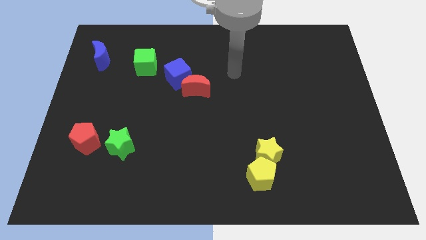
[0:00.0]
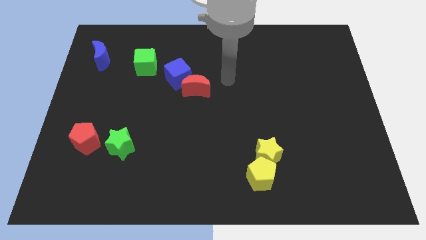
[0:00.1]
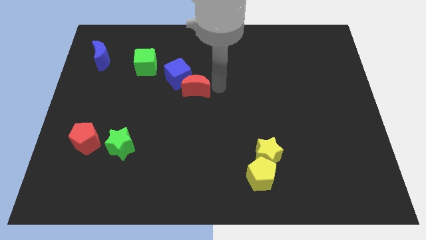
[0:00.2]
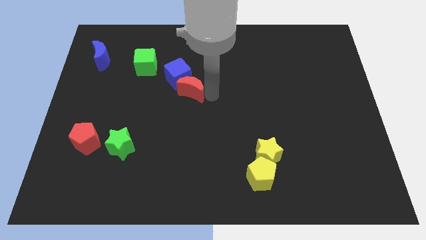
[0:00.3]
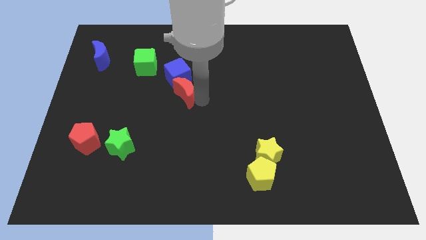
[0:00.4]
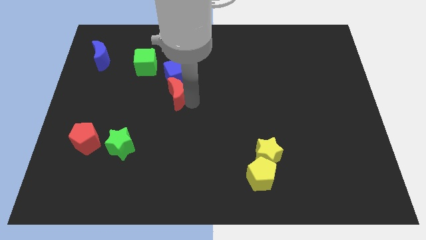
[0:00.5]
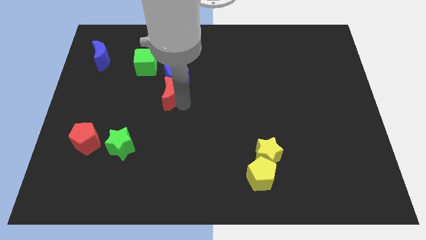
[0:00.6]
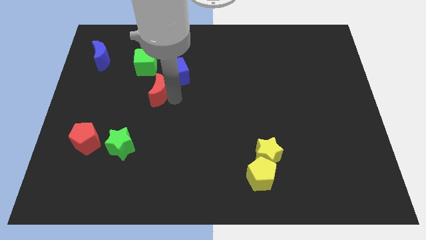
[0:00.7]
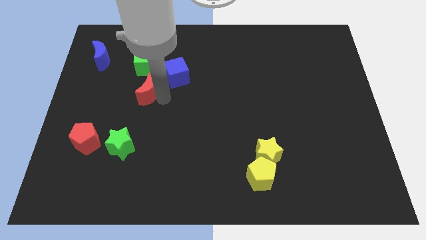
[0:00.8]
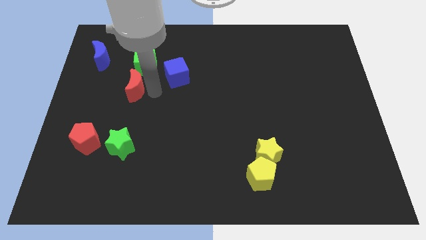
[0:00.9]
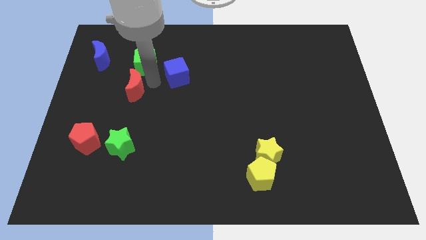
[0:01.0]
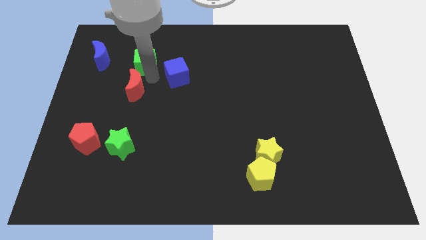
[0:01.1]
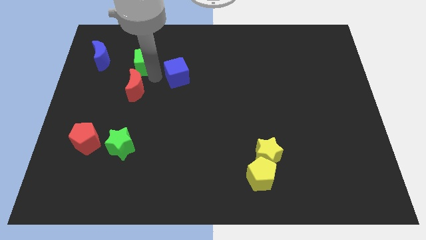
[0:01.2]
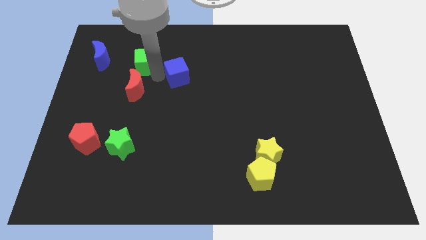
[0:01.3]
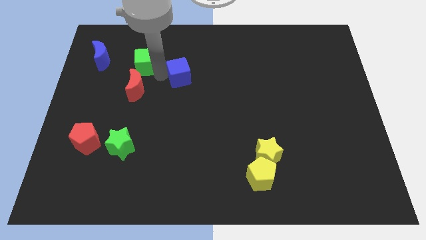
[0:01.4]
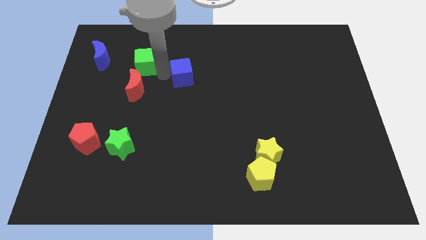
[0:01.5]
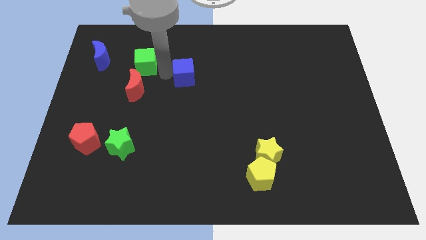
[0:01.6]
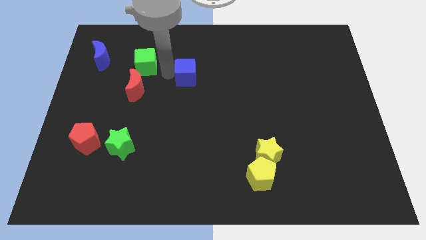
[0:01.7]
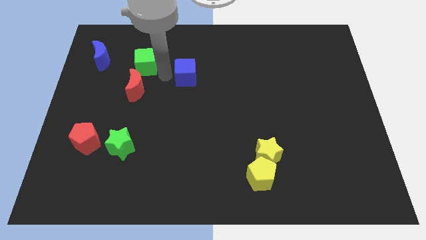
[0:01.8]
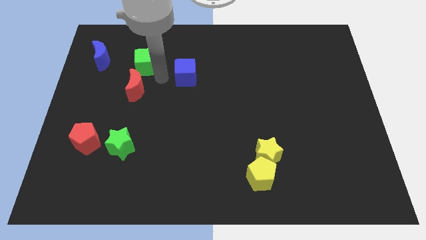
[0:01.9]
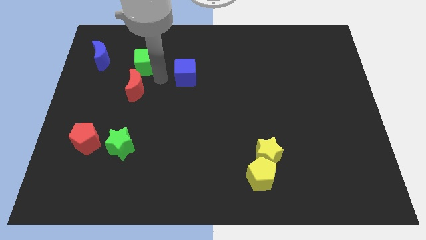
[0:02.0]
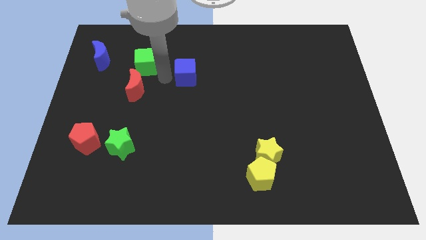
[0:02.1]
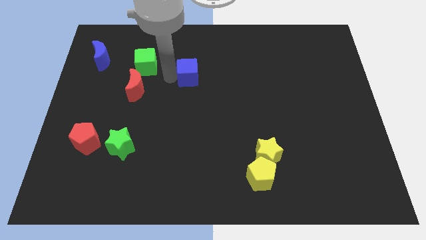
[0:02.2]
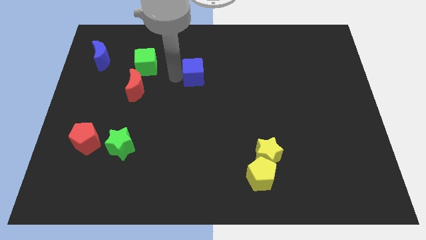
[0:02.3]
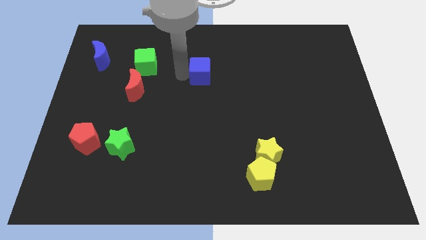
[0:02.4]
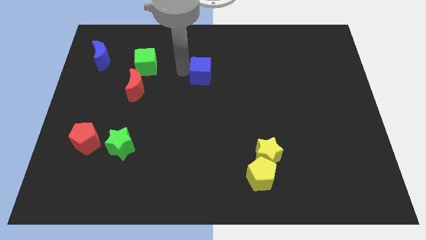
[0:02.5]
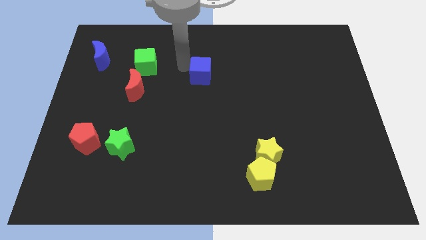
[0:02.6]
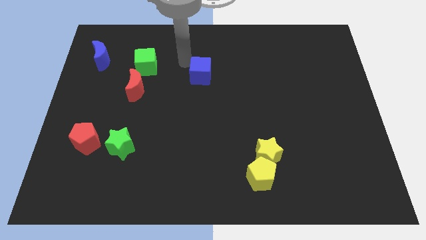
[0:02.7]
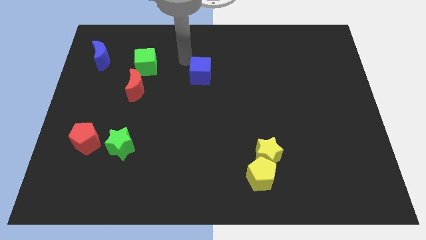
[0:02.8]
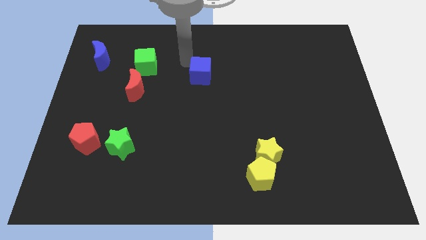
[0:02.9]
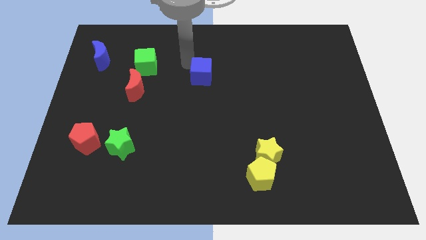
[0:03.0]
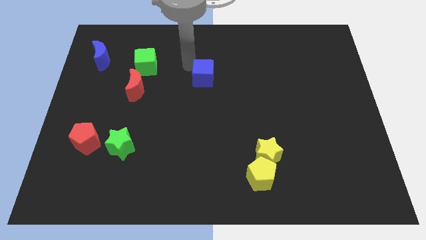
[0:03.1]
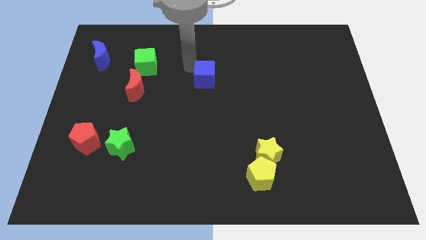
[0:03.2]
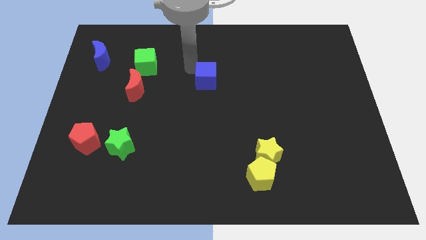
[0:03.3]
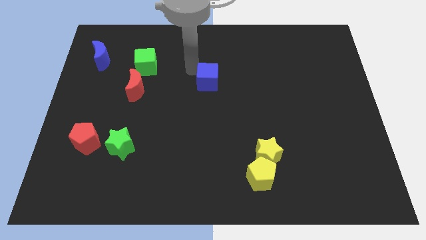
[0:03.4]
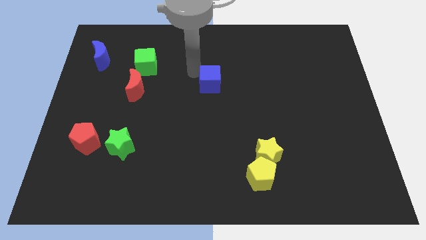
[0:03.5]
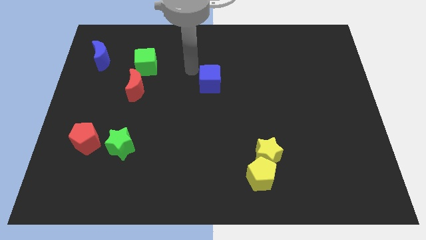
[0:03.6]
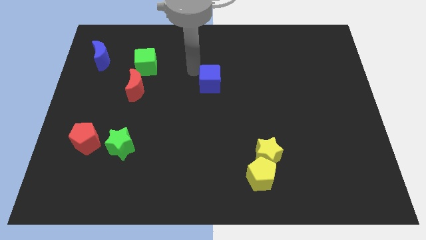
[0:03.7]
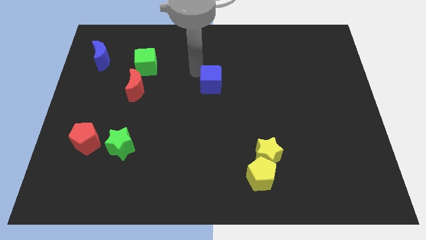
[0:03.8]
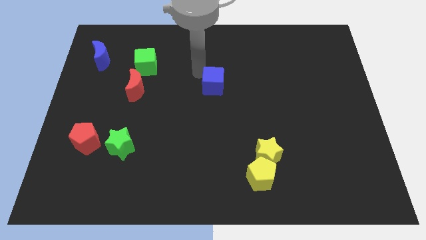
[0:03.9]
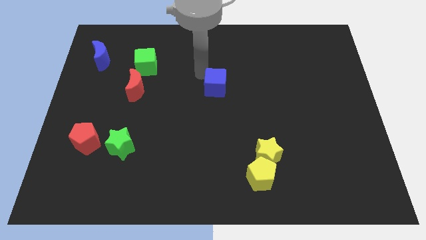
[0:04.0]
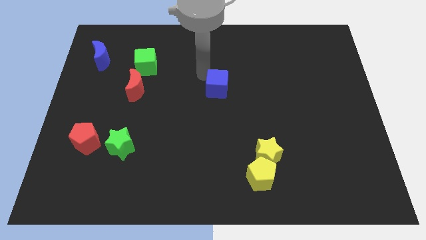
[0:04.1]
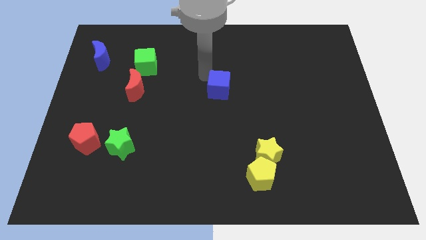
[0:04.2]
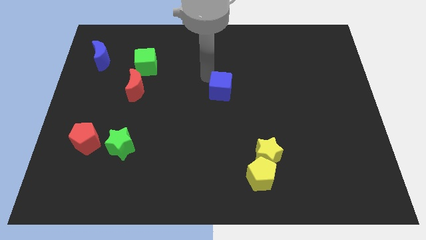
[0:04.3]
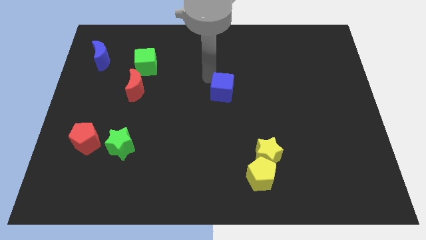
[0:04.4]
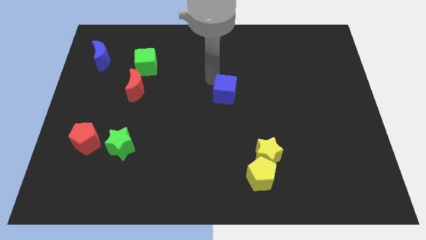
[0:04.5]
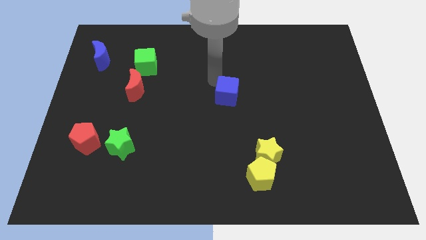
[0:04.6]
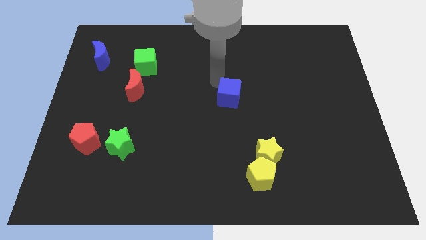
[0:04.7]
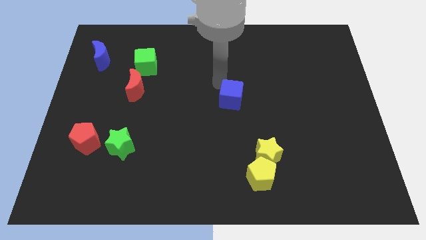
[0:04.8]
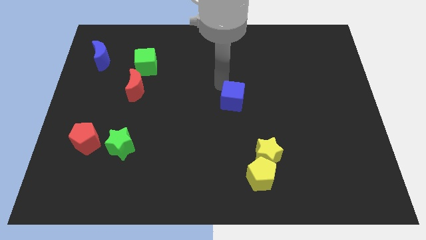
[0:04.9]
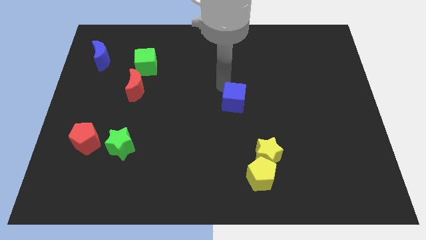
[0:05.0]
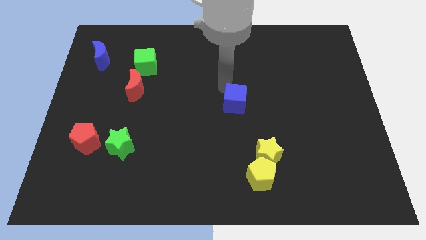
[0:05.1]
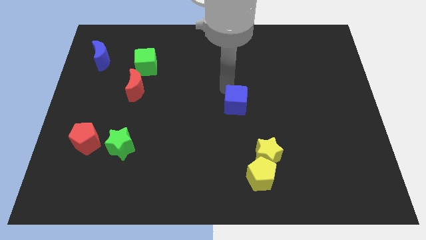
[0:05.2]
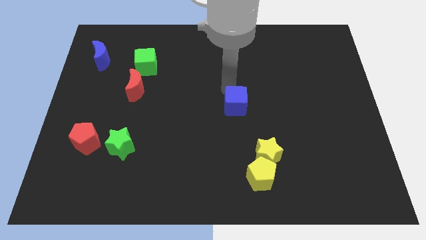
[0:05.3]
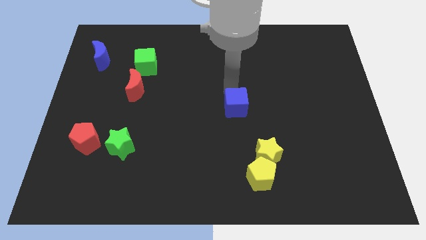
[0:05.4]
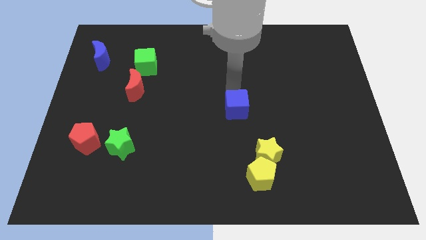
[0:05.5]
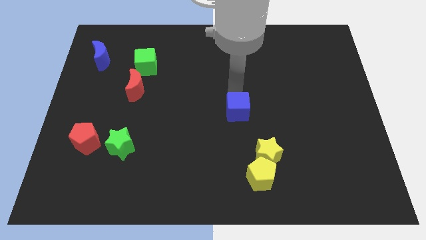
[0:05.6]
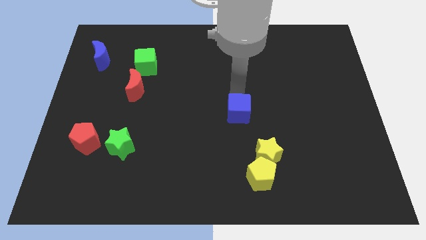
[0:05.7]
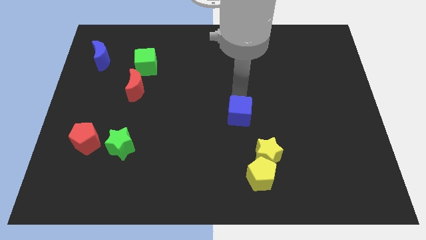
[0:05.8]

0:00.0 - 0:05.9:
move the blue cube above the yellow star
